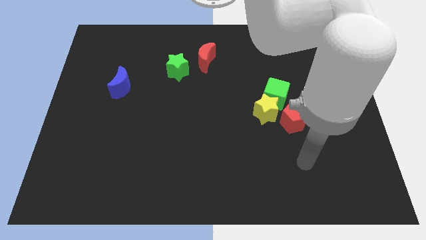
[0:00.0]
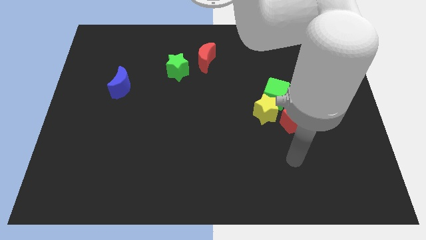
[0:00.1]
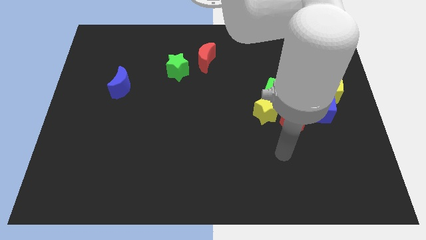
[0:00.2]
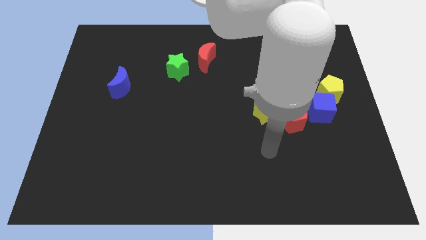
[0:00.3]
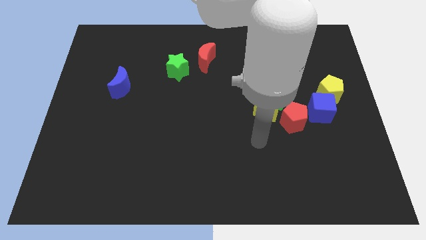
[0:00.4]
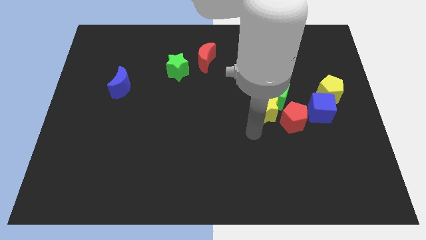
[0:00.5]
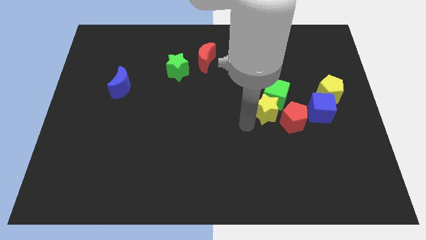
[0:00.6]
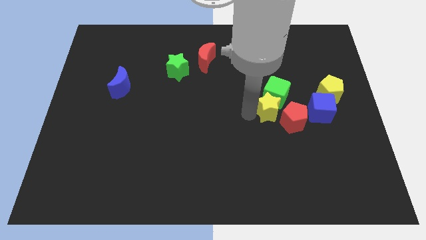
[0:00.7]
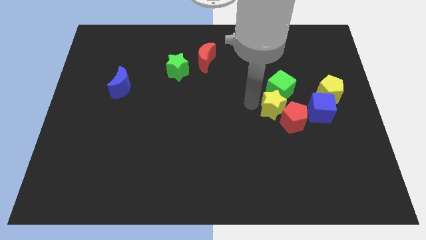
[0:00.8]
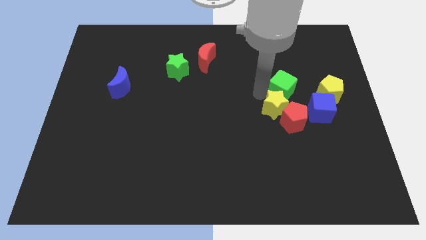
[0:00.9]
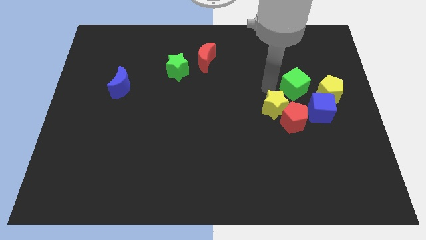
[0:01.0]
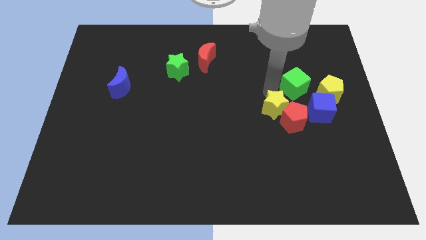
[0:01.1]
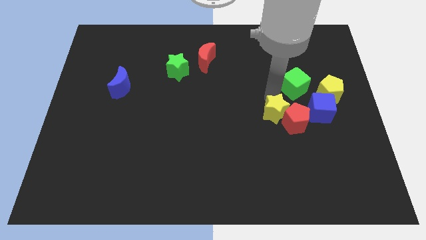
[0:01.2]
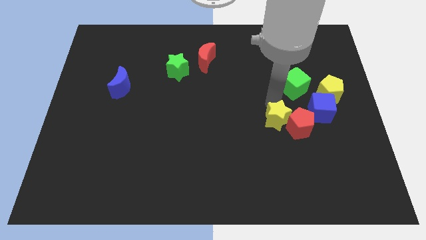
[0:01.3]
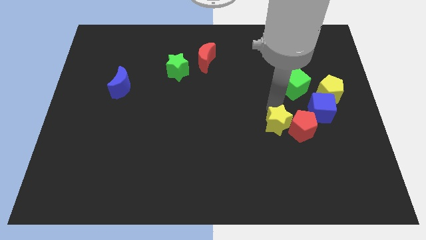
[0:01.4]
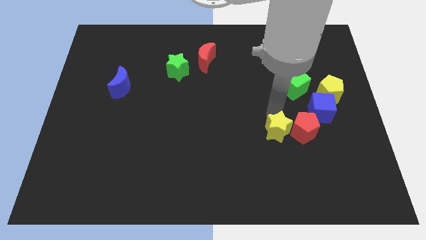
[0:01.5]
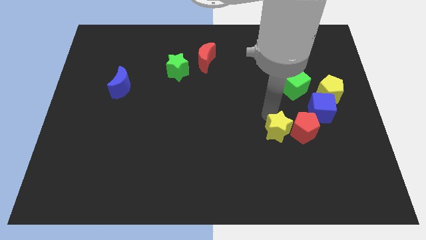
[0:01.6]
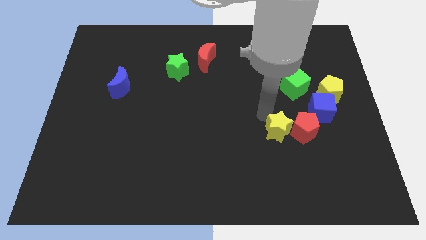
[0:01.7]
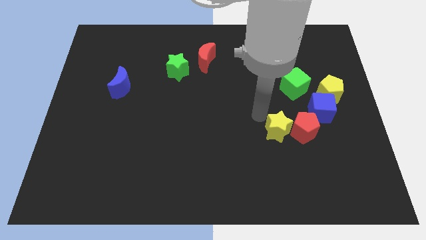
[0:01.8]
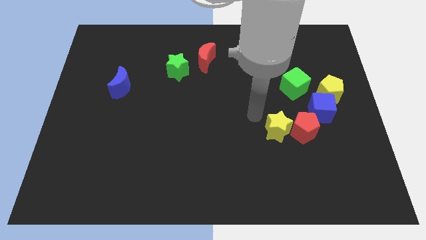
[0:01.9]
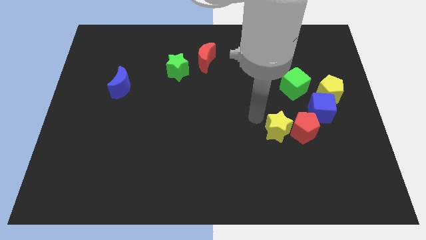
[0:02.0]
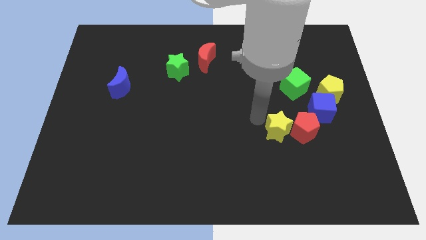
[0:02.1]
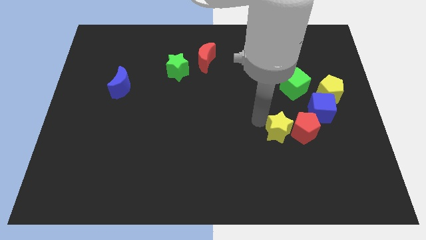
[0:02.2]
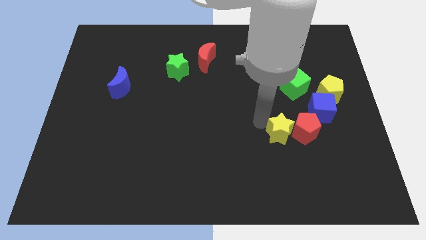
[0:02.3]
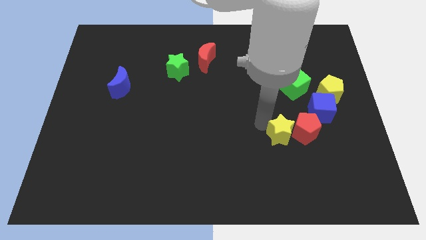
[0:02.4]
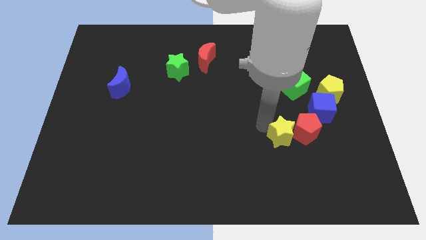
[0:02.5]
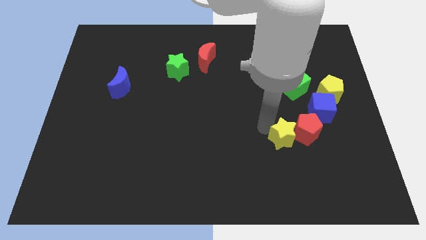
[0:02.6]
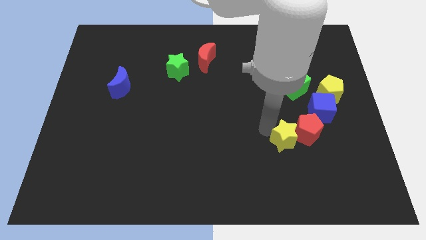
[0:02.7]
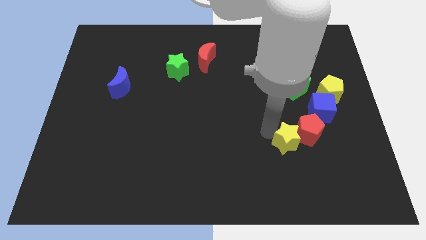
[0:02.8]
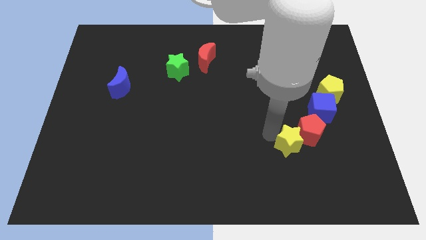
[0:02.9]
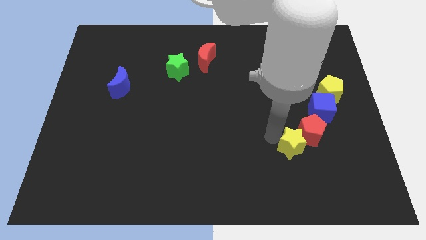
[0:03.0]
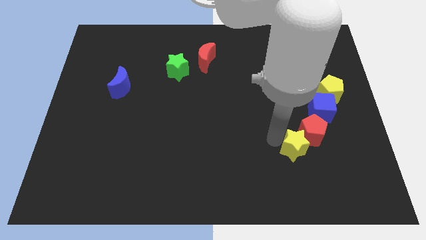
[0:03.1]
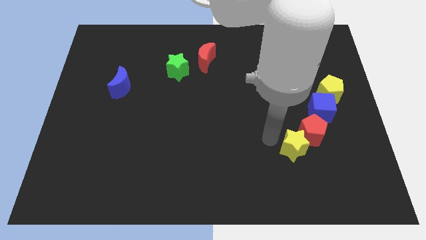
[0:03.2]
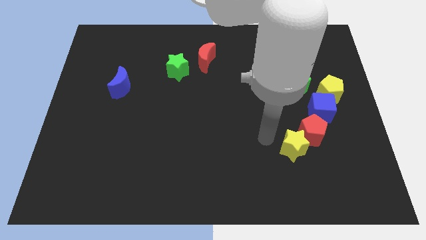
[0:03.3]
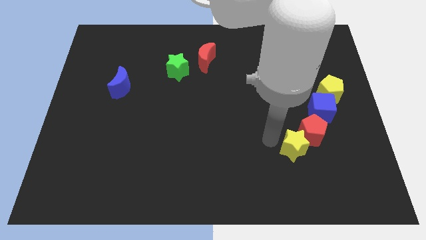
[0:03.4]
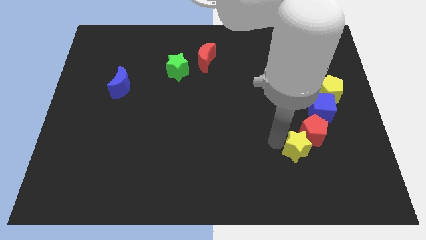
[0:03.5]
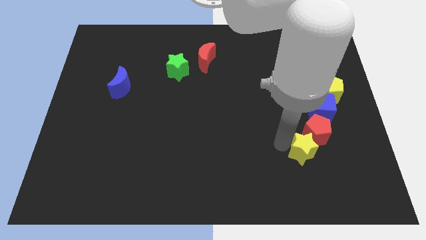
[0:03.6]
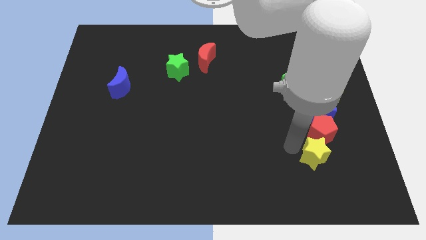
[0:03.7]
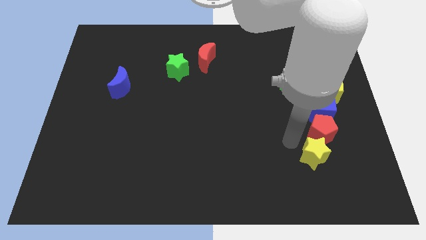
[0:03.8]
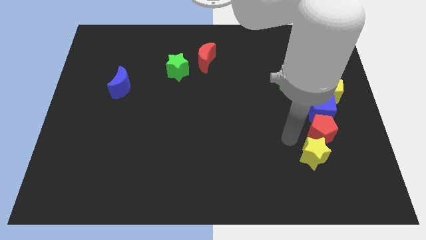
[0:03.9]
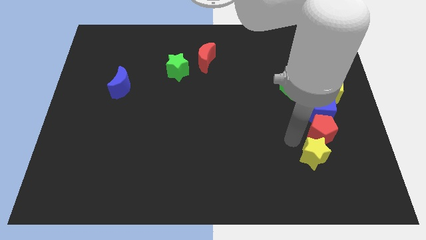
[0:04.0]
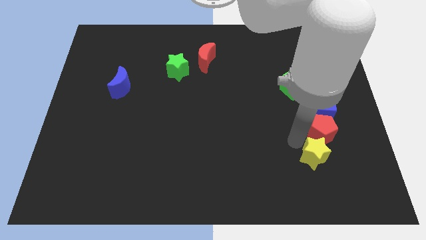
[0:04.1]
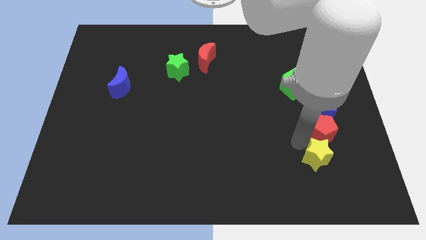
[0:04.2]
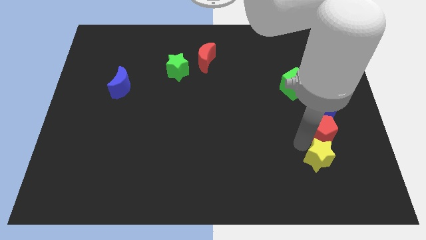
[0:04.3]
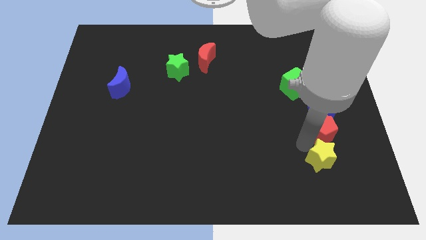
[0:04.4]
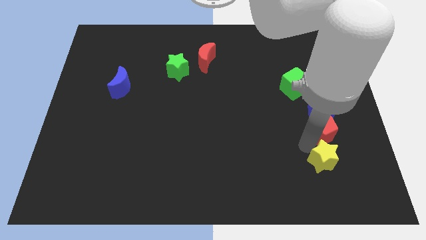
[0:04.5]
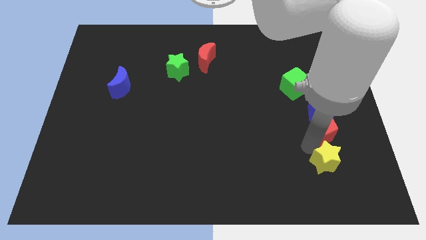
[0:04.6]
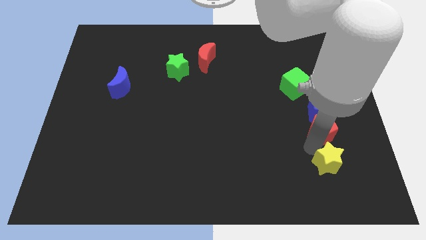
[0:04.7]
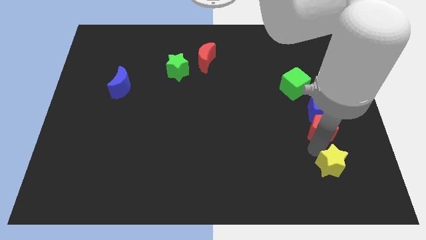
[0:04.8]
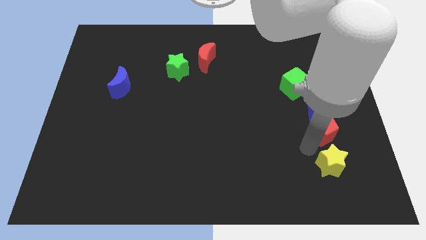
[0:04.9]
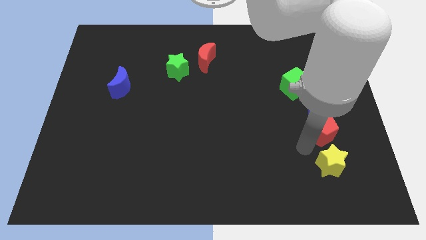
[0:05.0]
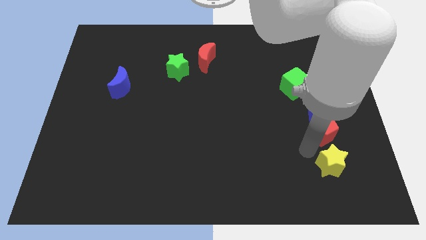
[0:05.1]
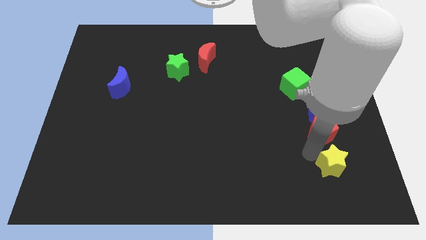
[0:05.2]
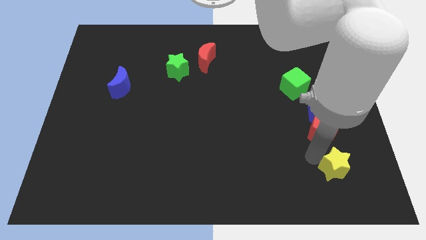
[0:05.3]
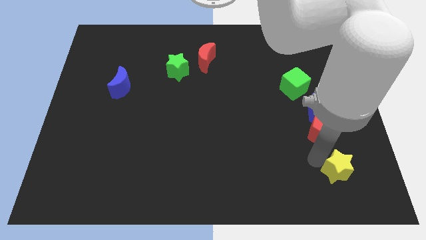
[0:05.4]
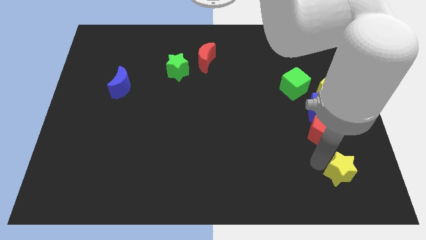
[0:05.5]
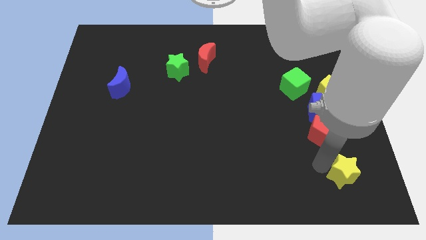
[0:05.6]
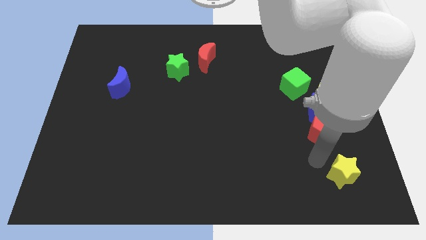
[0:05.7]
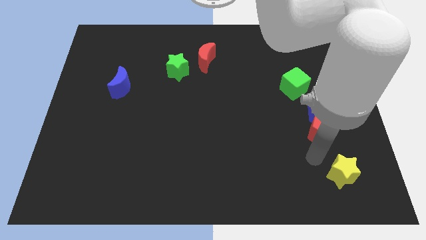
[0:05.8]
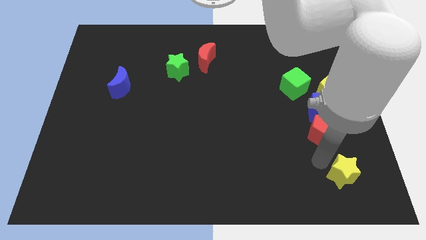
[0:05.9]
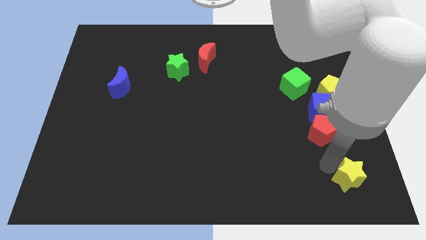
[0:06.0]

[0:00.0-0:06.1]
move the yellow star to the bottom right corner

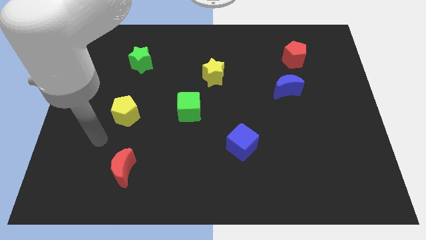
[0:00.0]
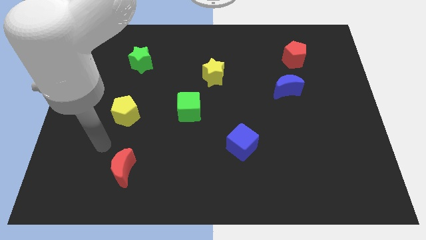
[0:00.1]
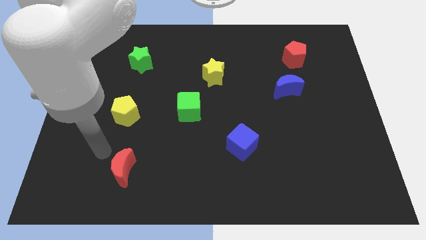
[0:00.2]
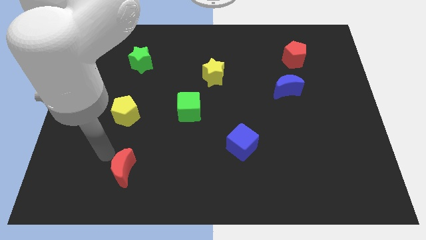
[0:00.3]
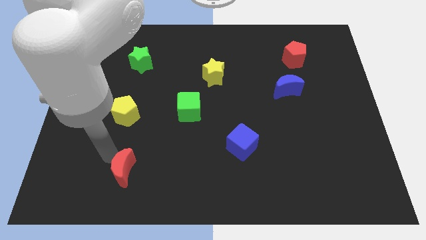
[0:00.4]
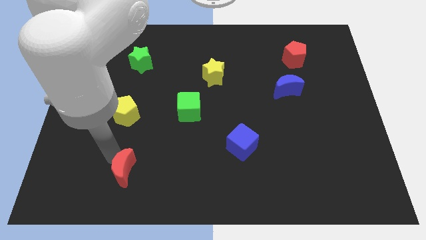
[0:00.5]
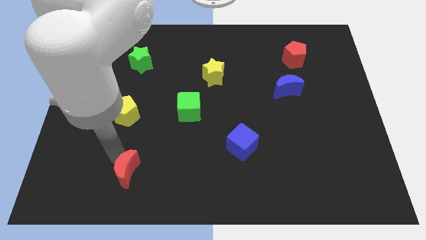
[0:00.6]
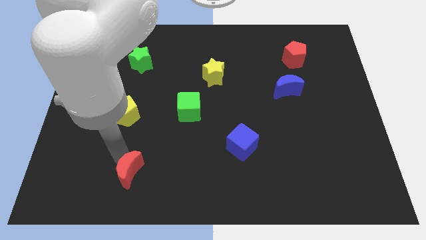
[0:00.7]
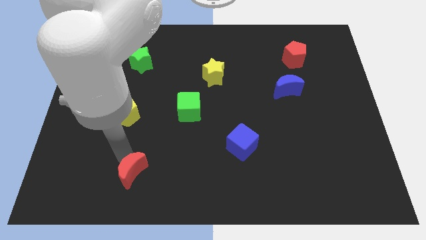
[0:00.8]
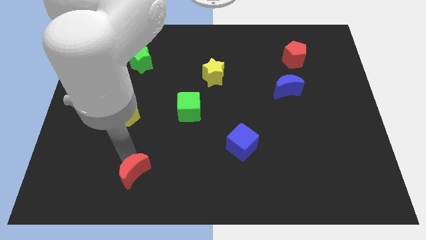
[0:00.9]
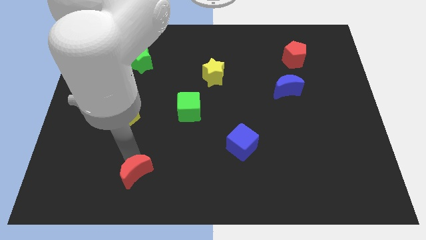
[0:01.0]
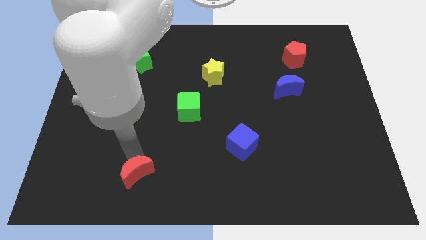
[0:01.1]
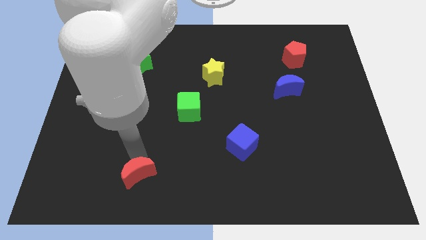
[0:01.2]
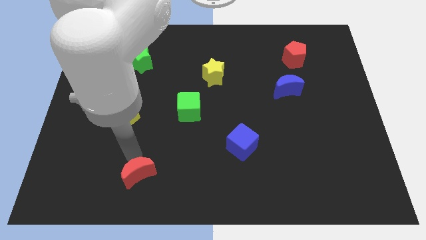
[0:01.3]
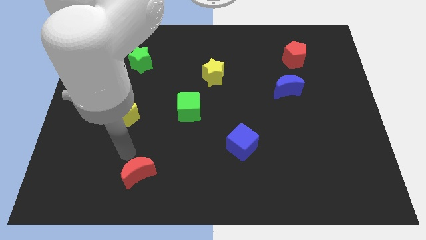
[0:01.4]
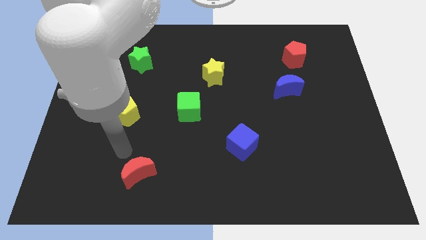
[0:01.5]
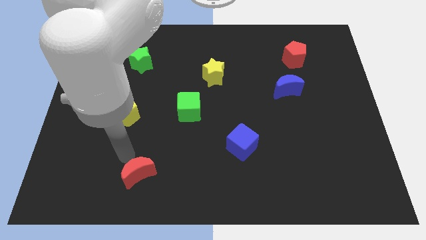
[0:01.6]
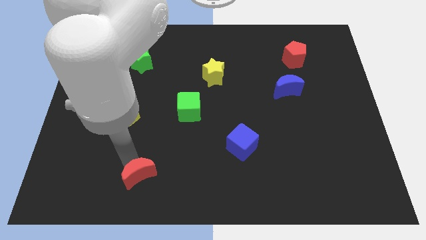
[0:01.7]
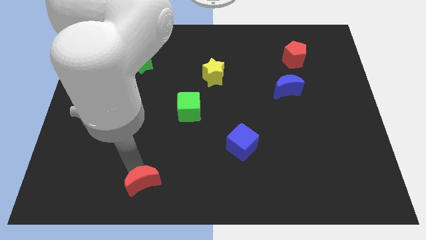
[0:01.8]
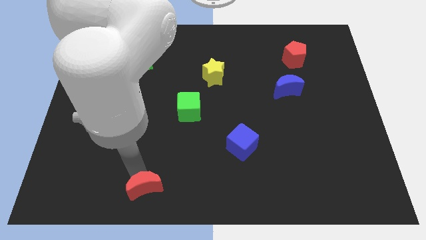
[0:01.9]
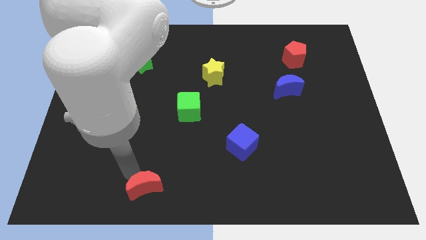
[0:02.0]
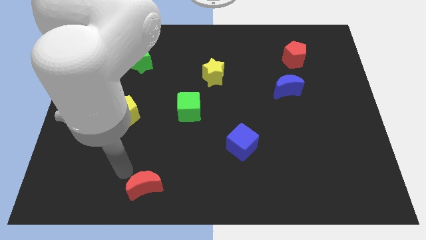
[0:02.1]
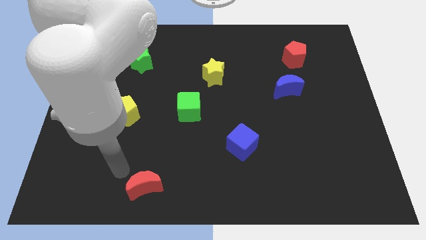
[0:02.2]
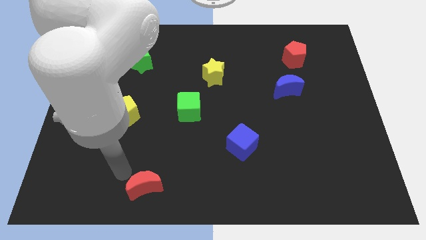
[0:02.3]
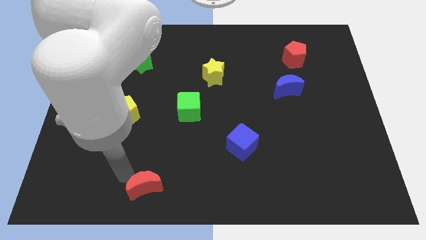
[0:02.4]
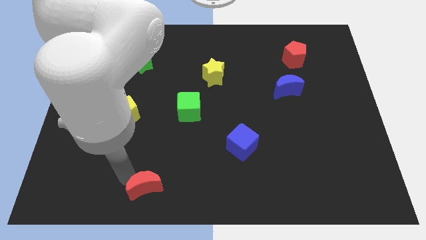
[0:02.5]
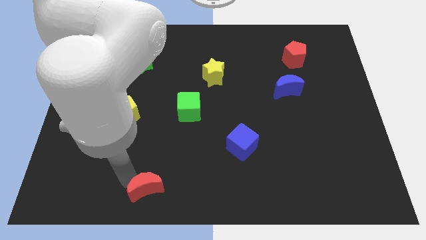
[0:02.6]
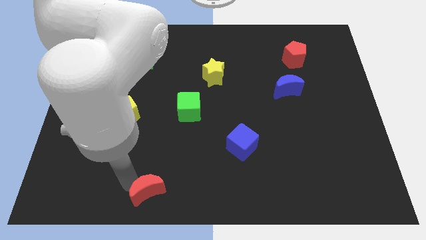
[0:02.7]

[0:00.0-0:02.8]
push the red moon to the bottom side
